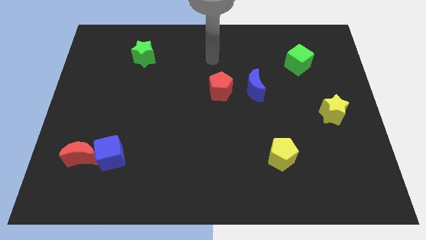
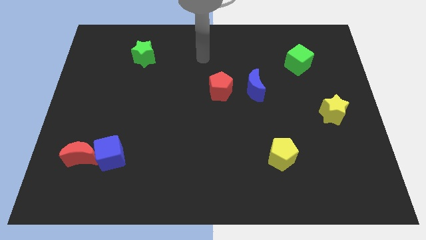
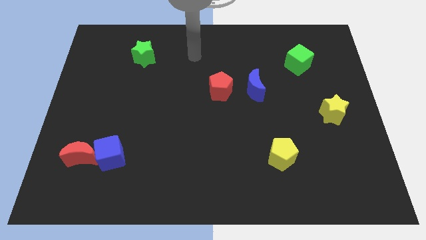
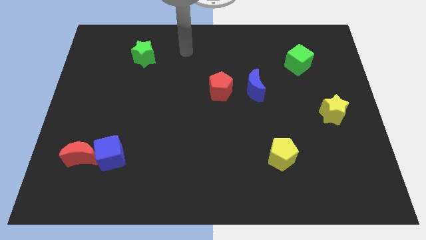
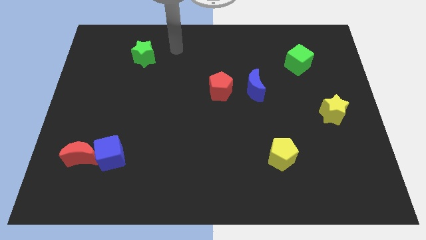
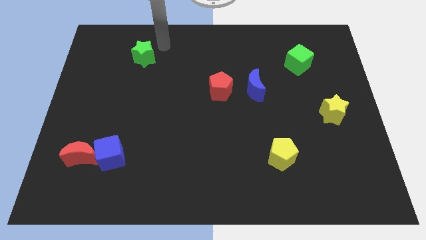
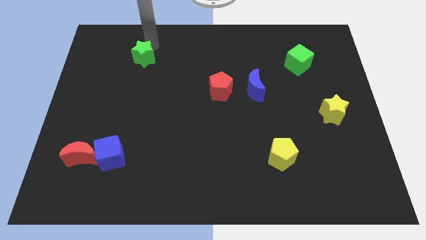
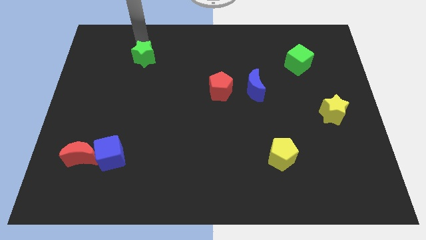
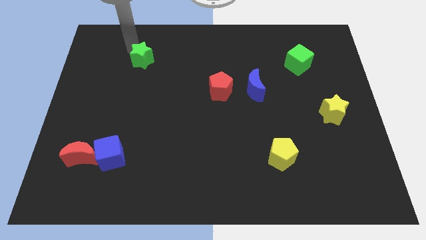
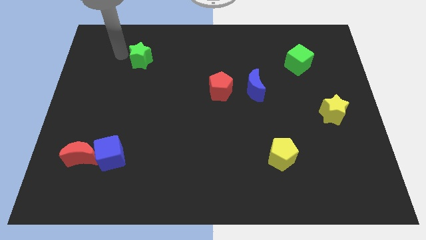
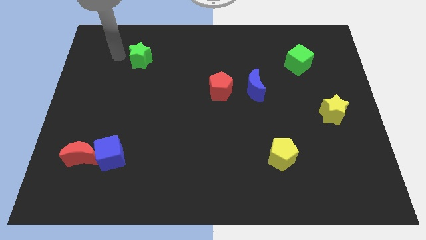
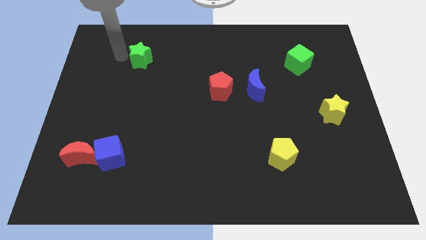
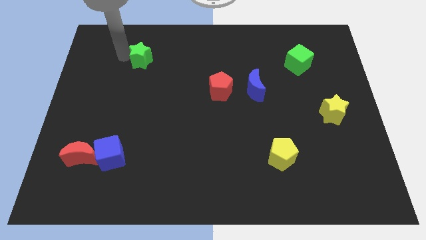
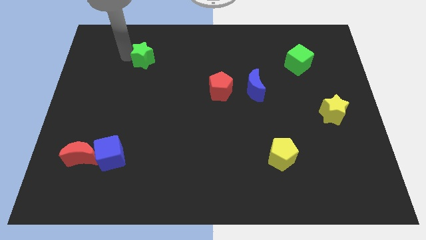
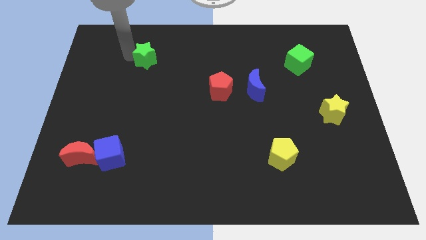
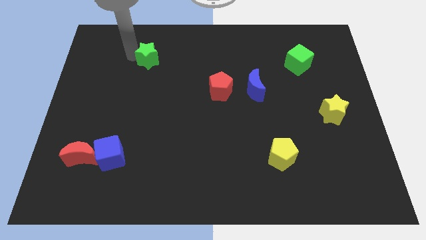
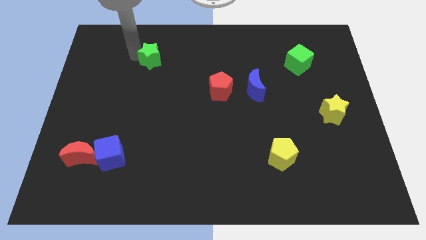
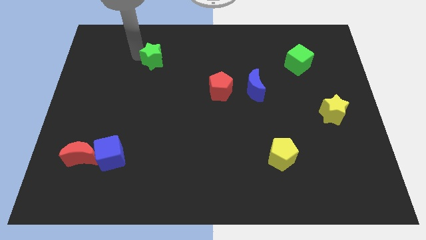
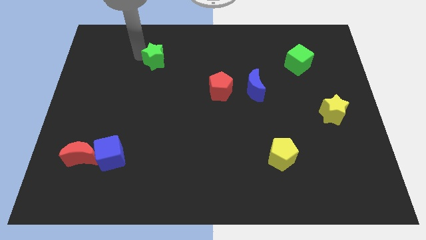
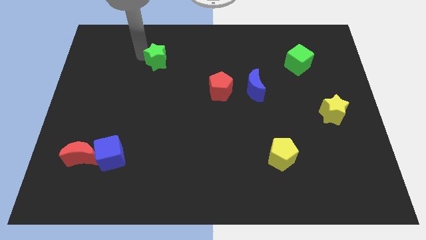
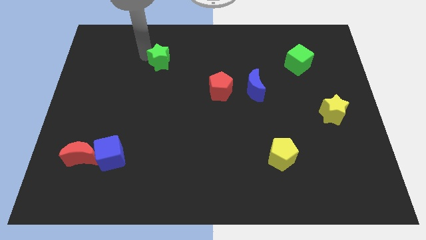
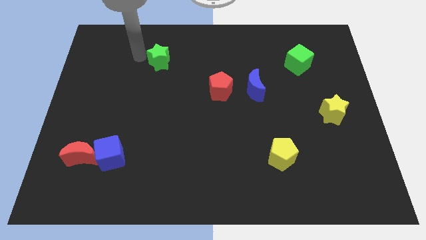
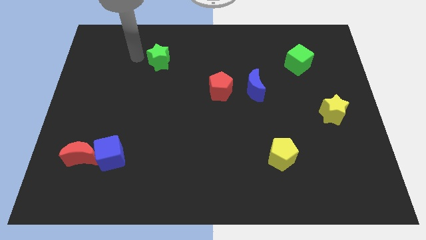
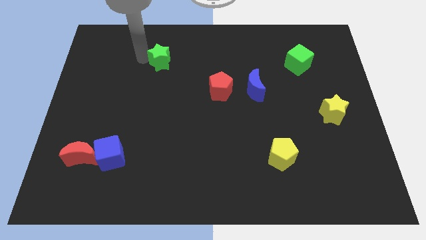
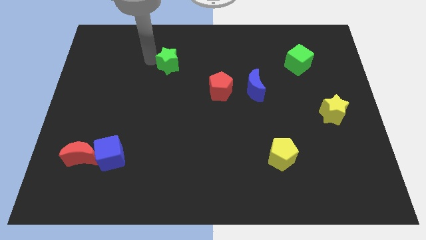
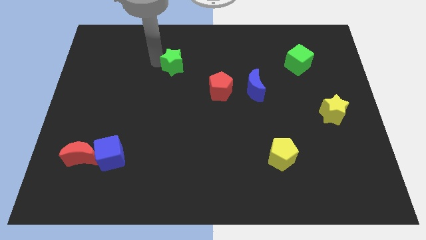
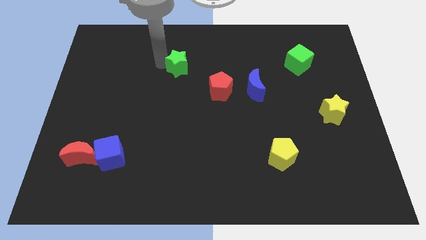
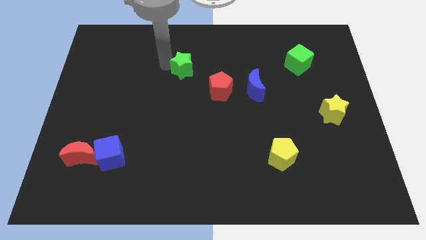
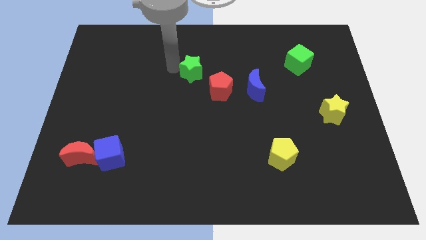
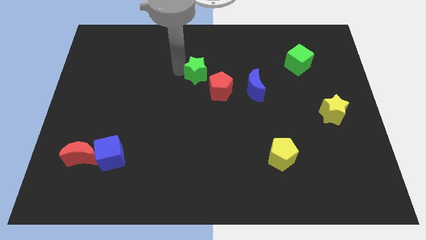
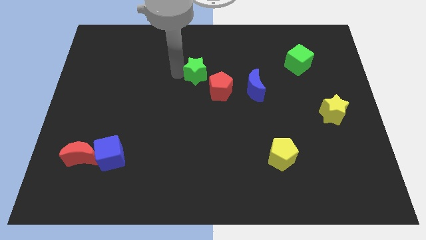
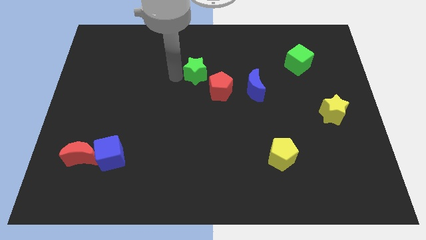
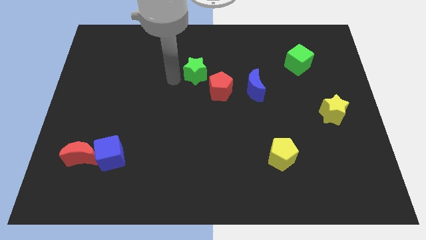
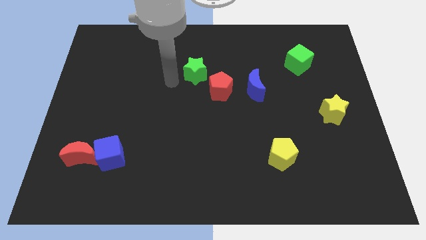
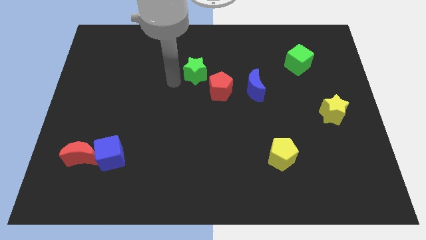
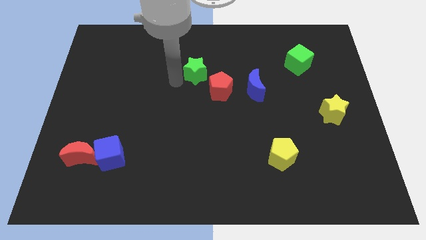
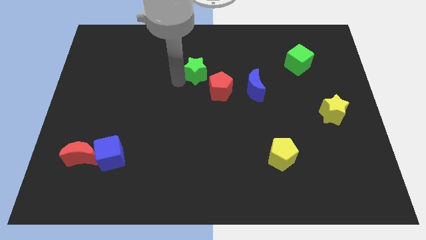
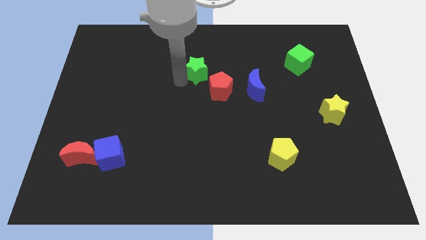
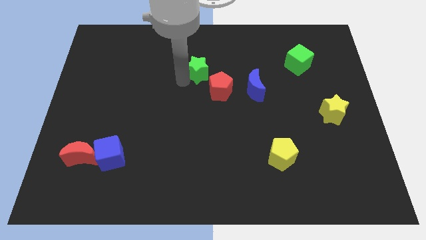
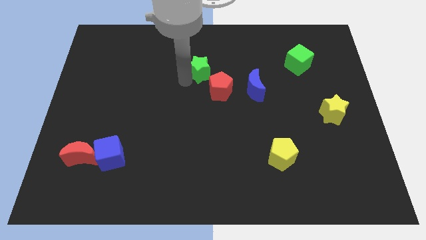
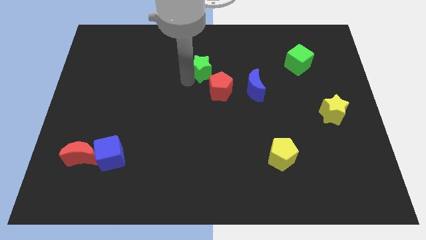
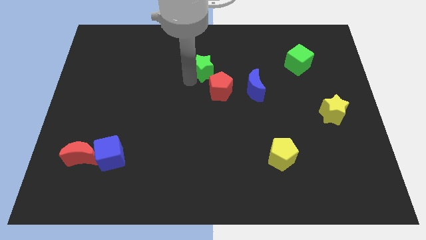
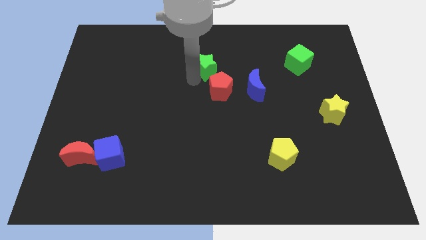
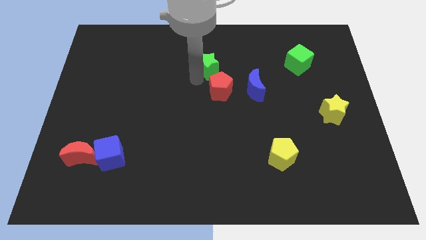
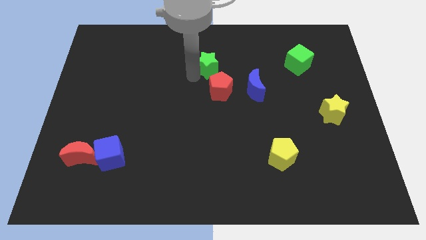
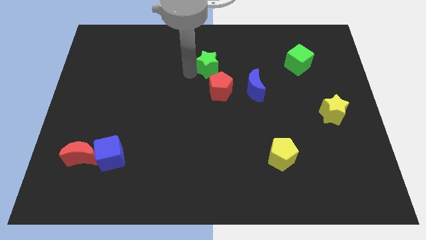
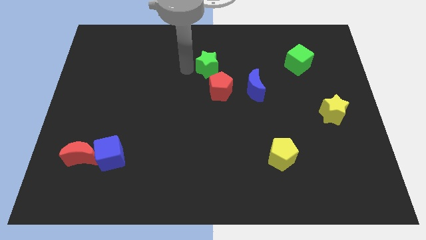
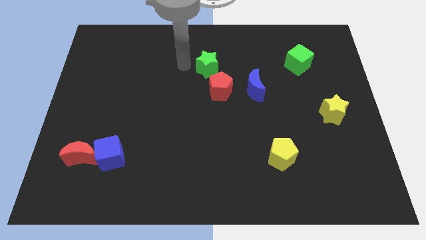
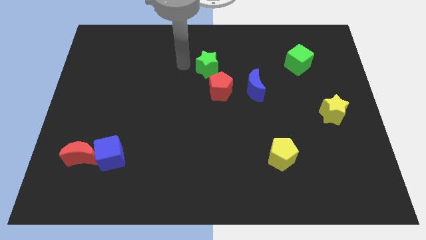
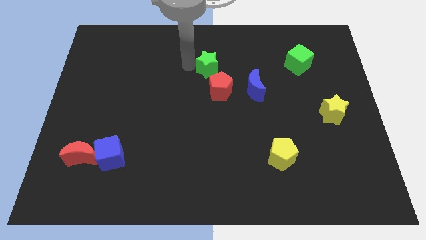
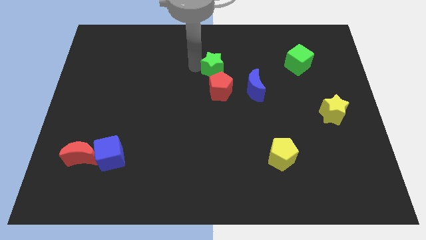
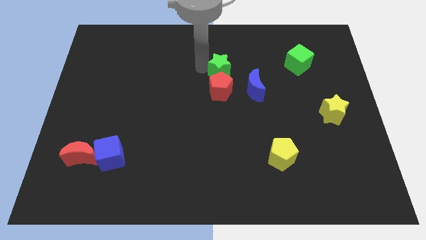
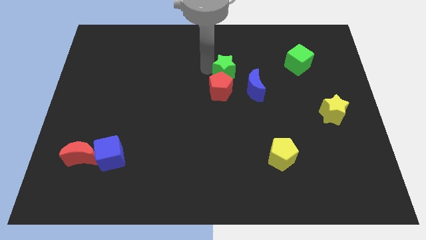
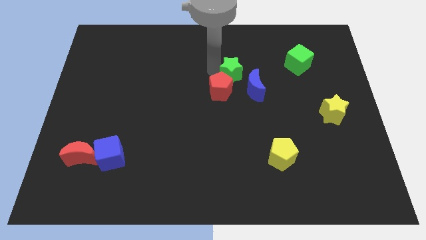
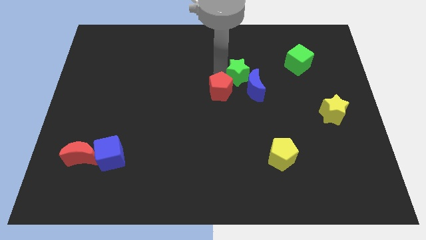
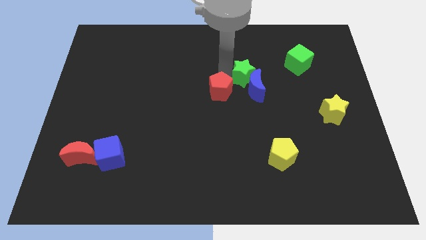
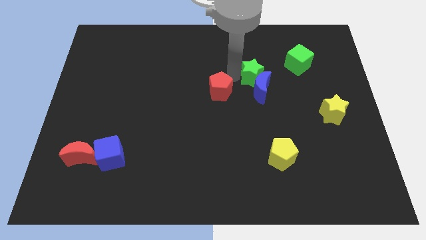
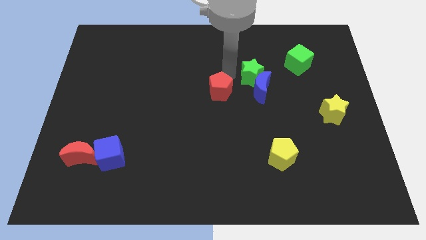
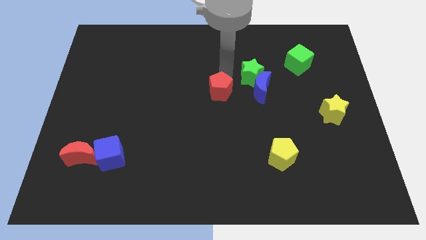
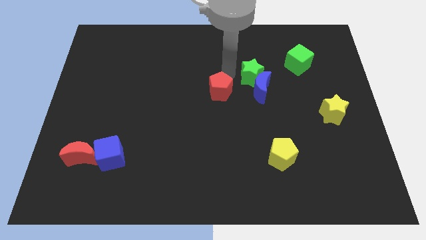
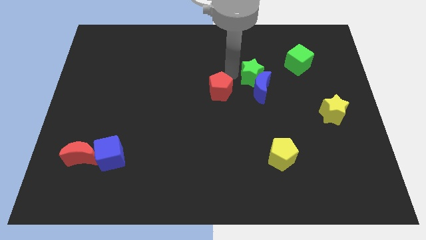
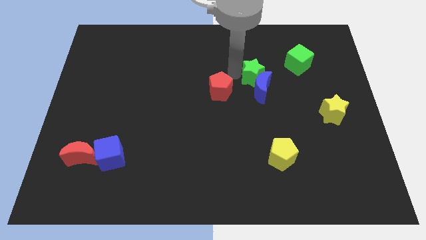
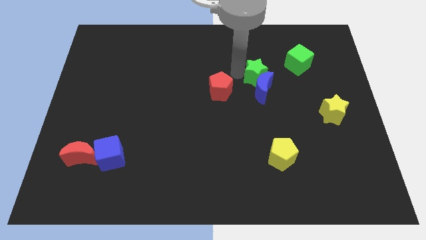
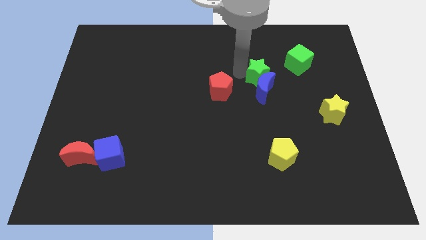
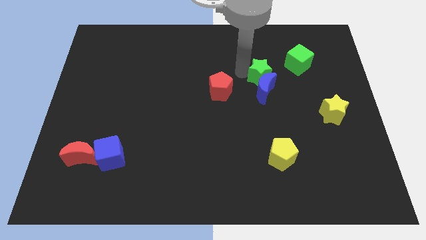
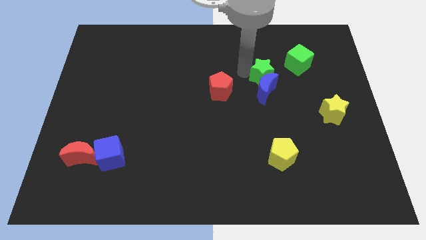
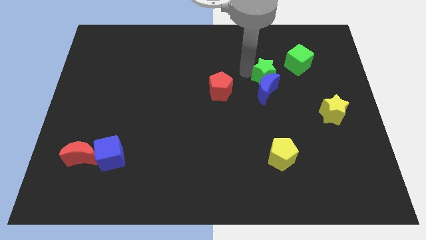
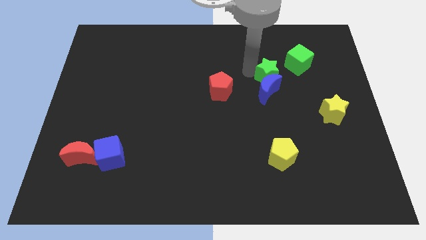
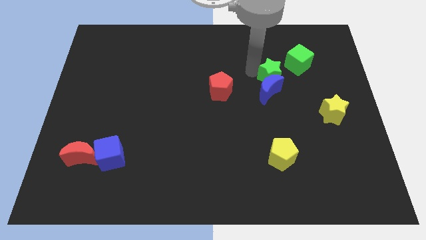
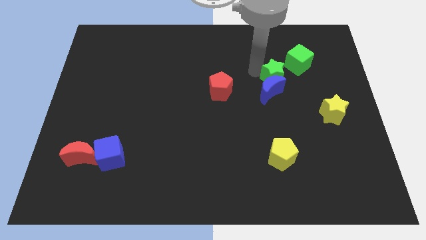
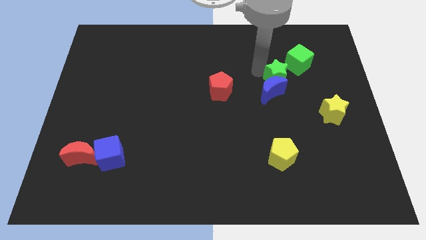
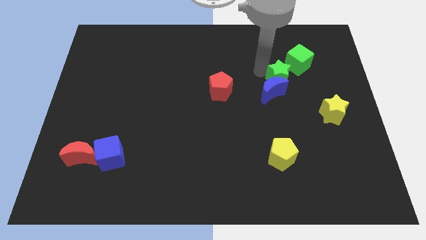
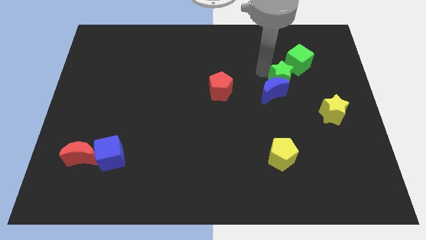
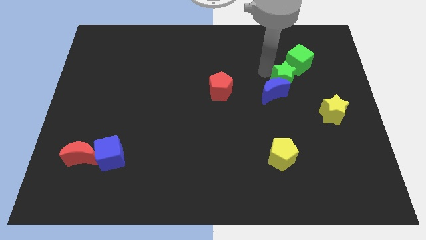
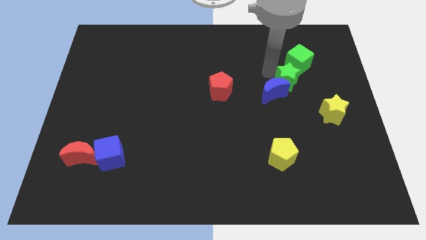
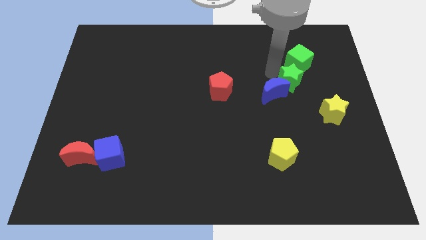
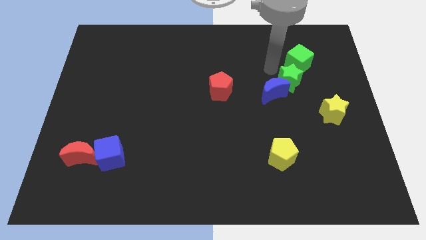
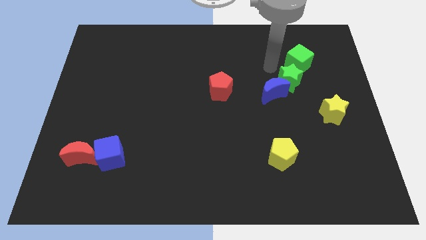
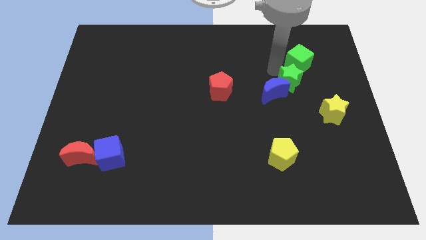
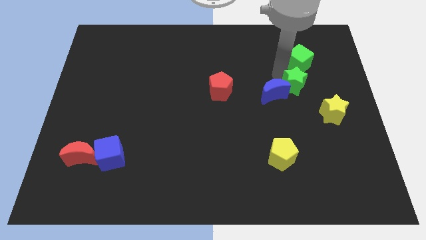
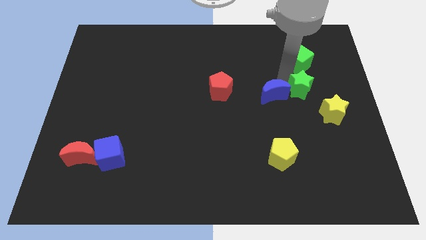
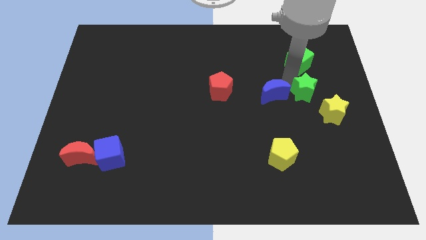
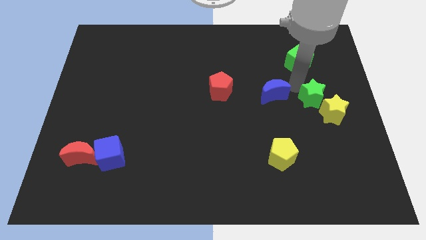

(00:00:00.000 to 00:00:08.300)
push the green star to the yellow star
